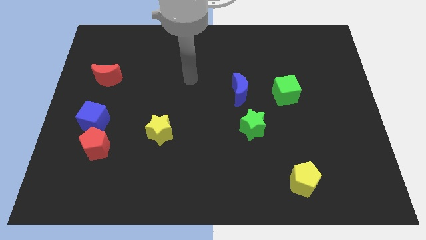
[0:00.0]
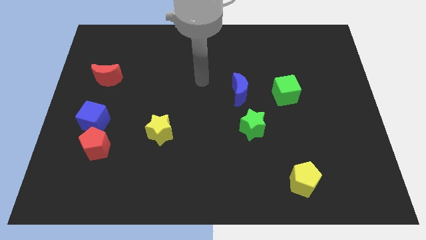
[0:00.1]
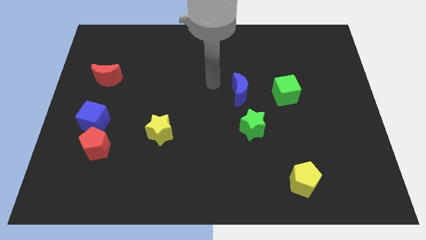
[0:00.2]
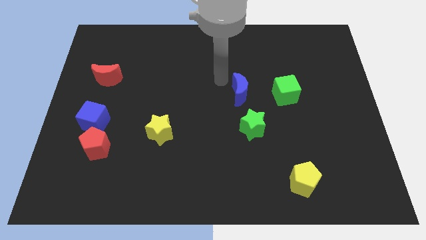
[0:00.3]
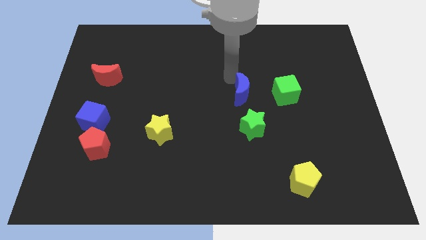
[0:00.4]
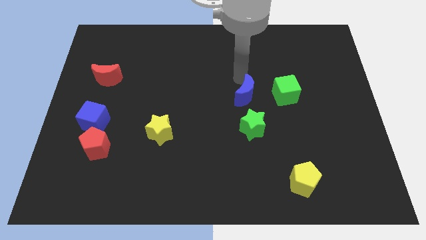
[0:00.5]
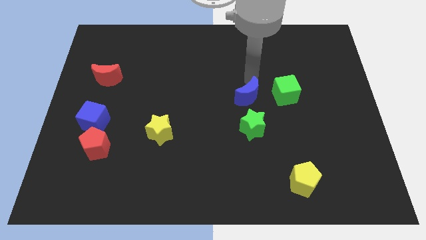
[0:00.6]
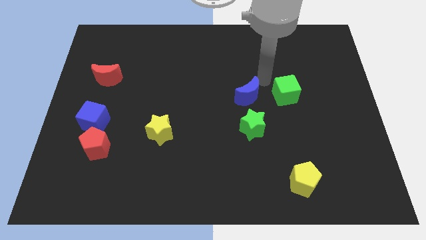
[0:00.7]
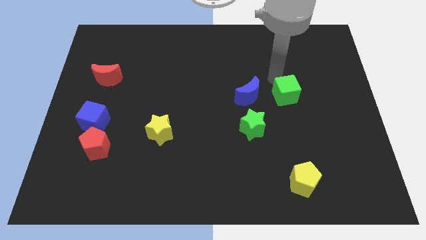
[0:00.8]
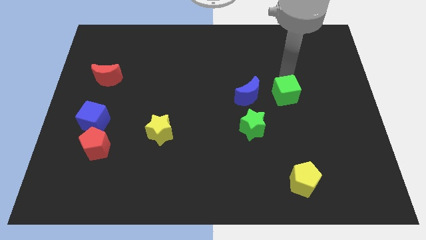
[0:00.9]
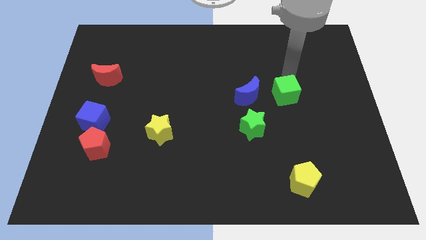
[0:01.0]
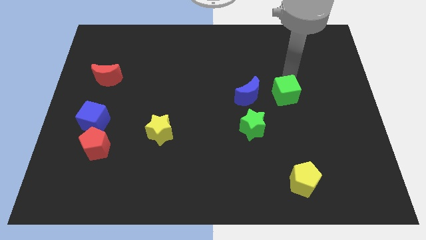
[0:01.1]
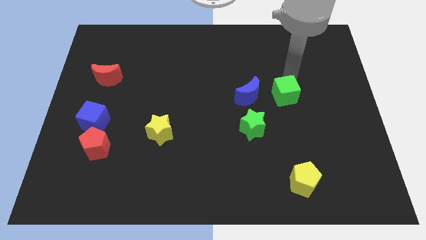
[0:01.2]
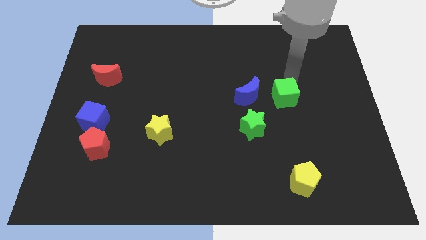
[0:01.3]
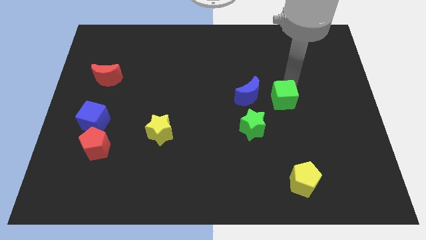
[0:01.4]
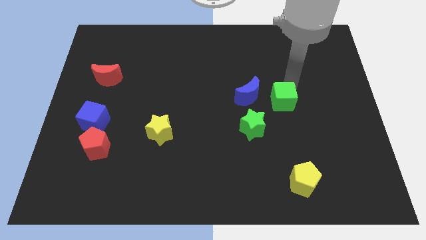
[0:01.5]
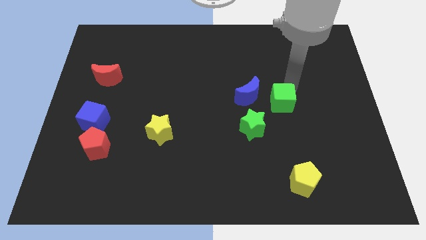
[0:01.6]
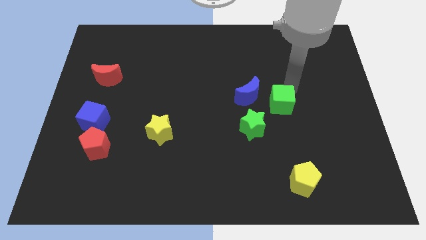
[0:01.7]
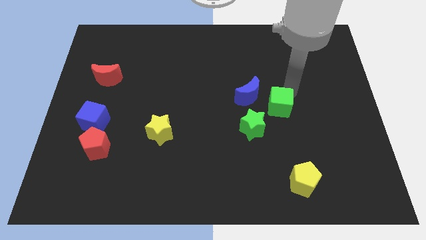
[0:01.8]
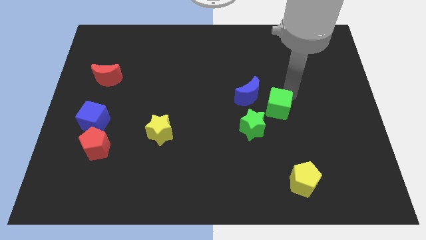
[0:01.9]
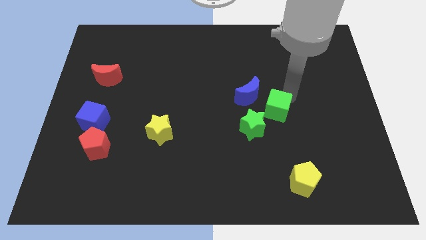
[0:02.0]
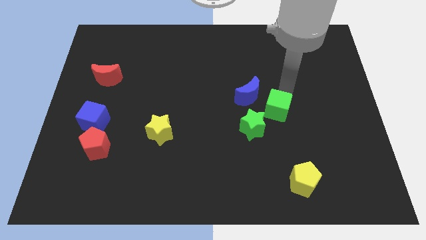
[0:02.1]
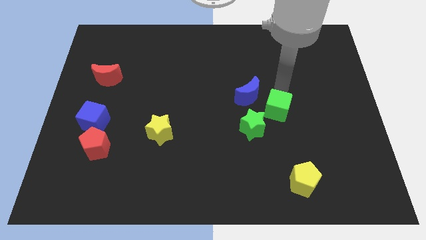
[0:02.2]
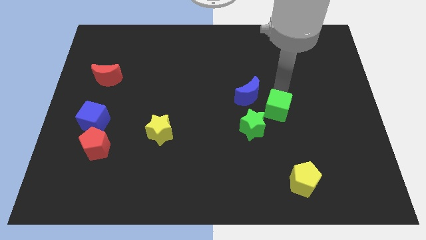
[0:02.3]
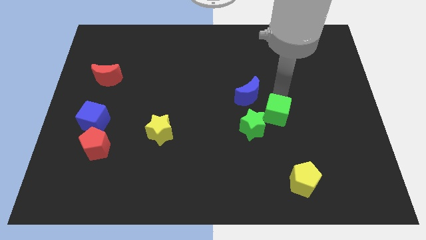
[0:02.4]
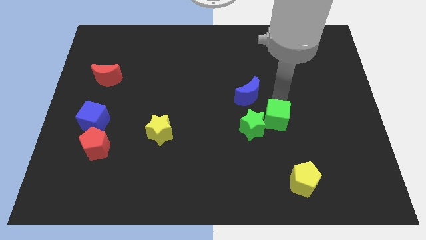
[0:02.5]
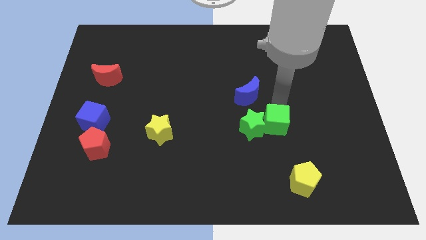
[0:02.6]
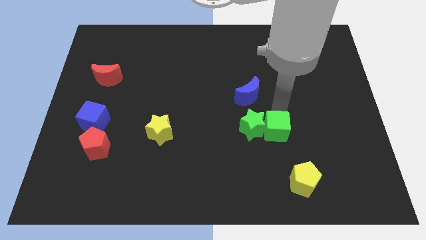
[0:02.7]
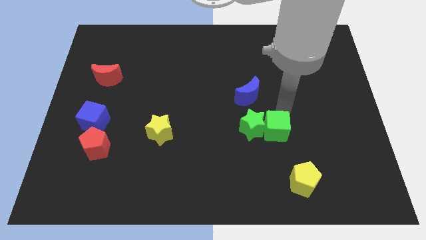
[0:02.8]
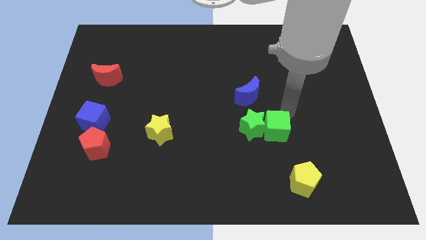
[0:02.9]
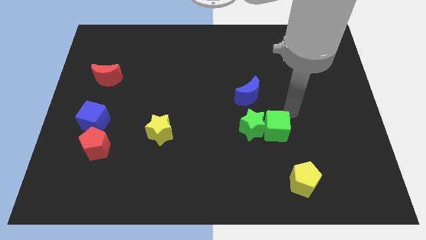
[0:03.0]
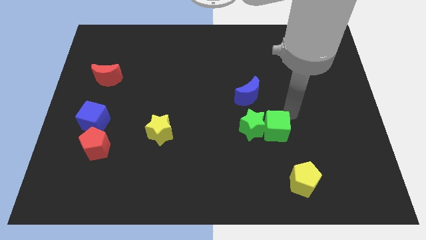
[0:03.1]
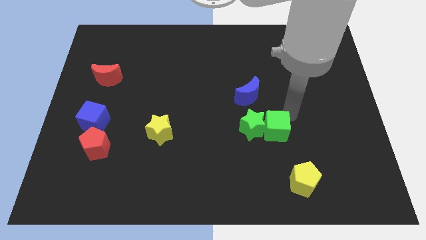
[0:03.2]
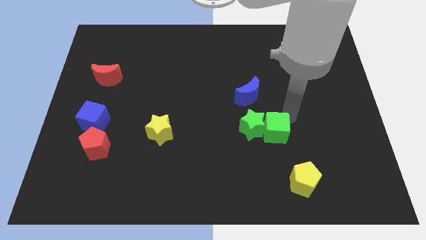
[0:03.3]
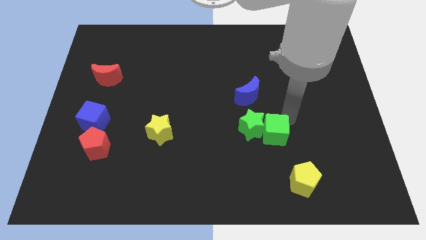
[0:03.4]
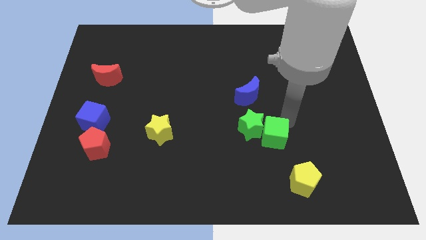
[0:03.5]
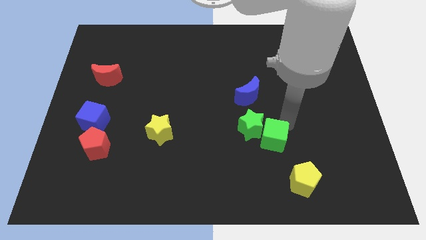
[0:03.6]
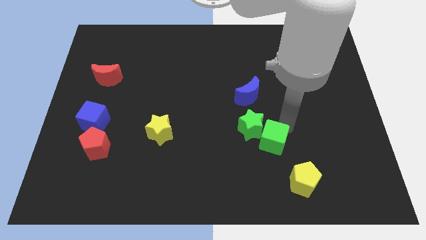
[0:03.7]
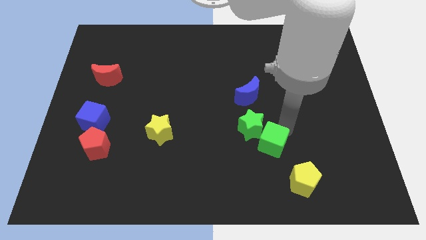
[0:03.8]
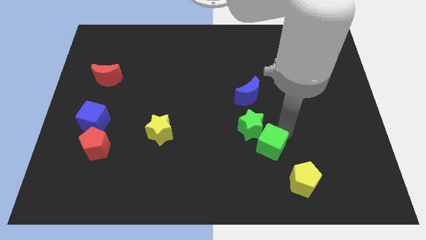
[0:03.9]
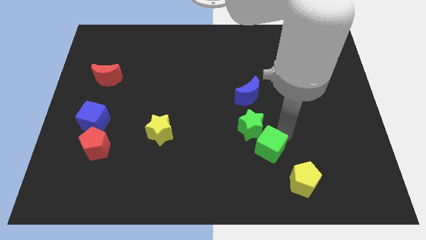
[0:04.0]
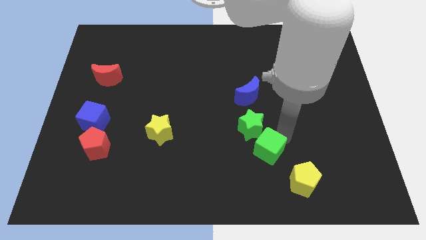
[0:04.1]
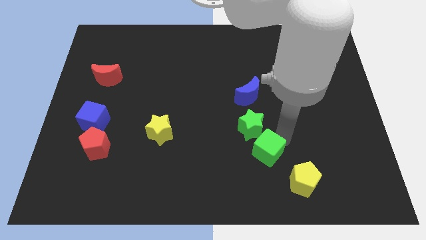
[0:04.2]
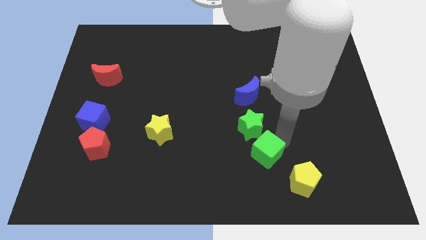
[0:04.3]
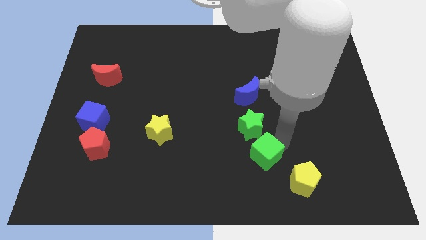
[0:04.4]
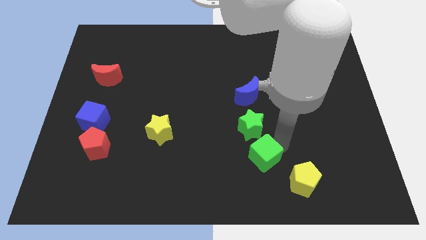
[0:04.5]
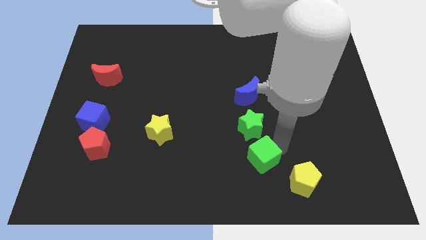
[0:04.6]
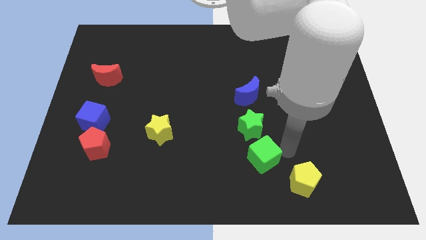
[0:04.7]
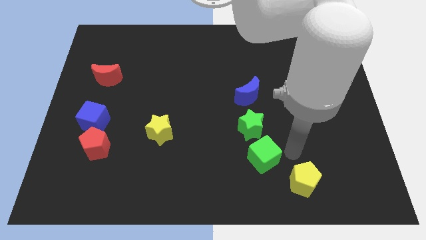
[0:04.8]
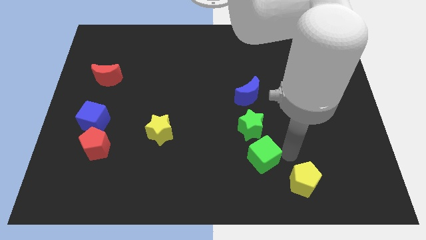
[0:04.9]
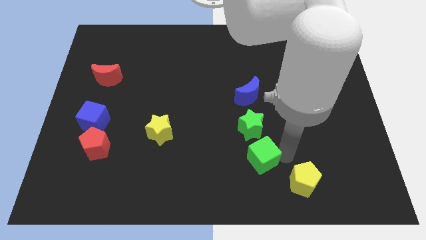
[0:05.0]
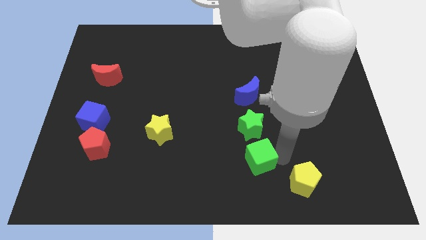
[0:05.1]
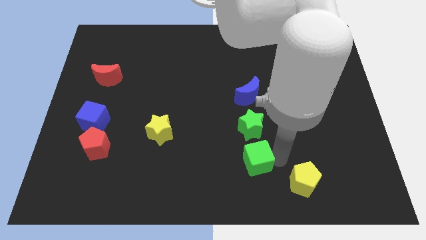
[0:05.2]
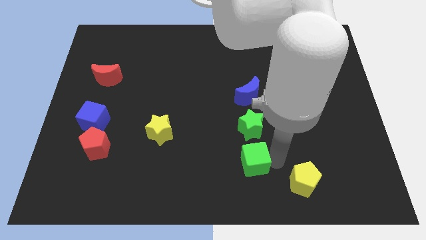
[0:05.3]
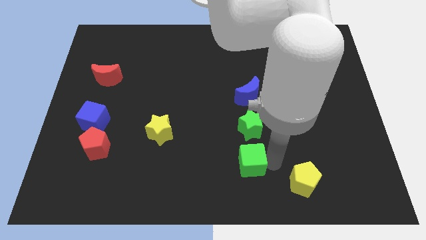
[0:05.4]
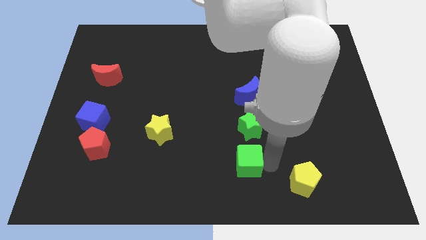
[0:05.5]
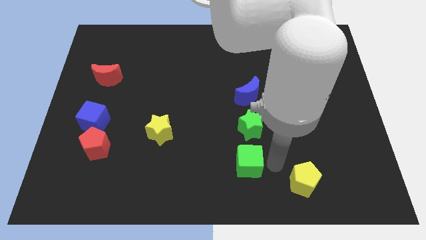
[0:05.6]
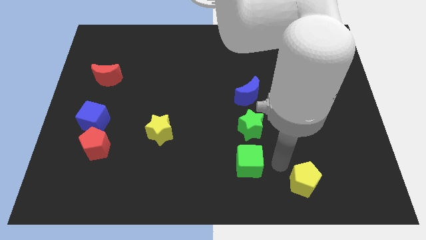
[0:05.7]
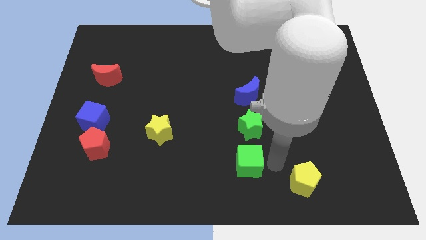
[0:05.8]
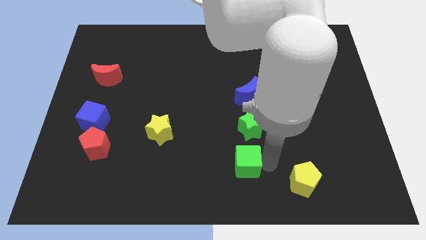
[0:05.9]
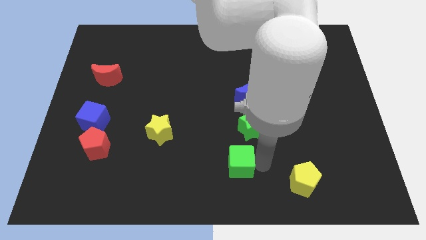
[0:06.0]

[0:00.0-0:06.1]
slide the green cube downwards and then to the left

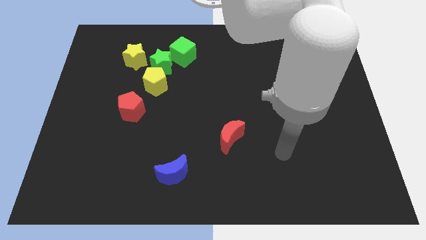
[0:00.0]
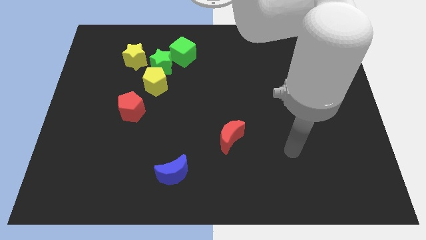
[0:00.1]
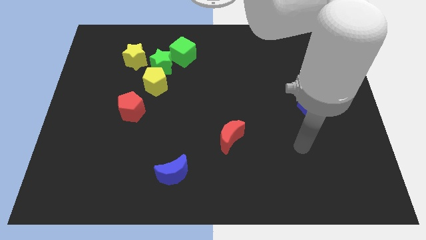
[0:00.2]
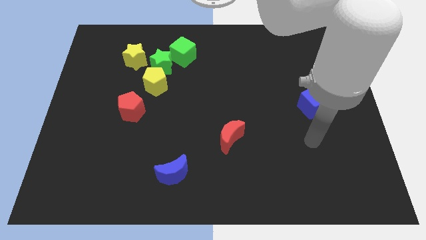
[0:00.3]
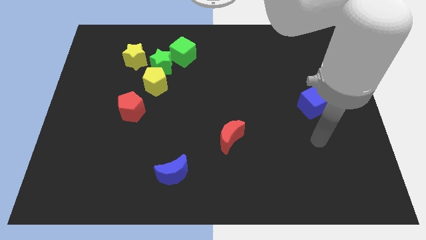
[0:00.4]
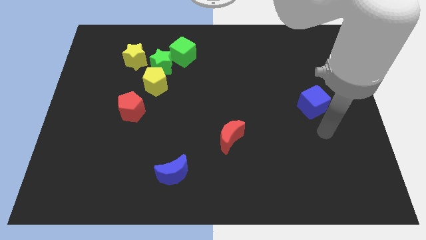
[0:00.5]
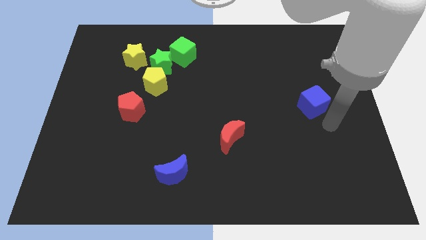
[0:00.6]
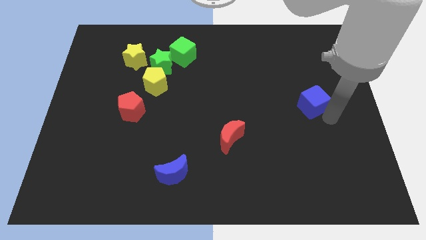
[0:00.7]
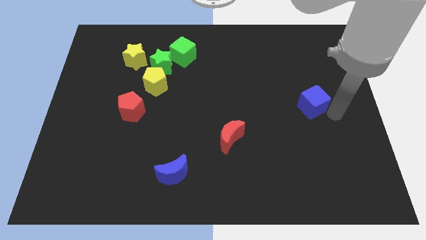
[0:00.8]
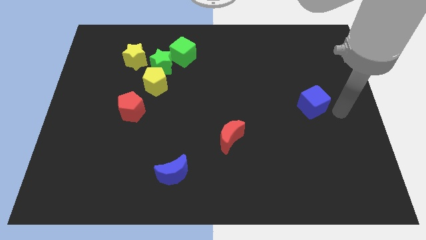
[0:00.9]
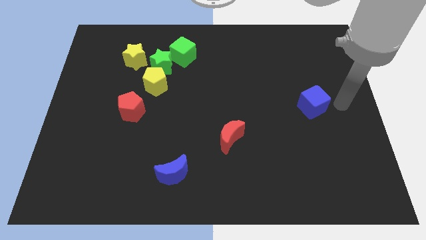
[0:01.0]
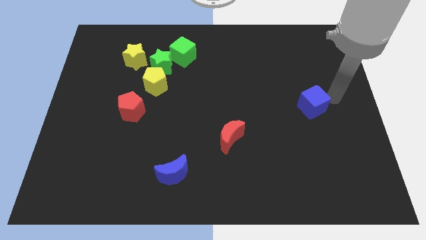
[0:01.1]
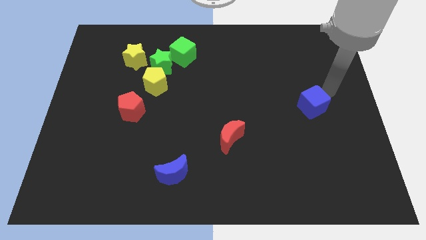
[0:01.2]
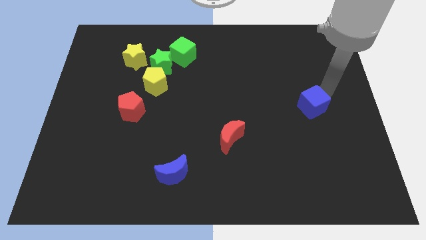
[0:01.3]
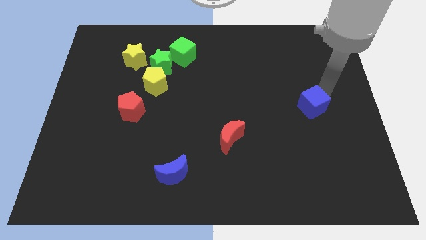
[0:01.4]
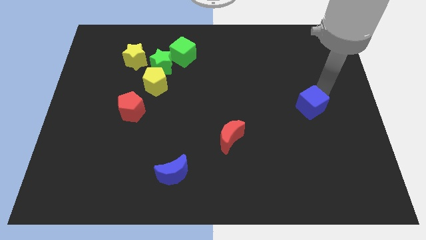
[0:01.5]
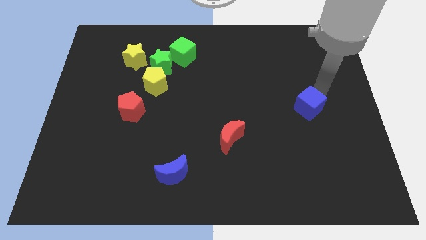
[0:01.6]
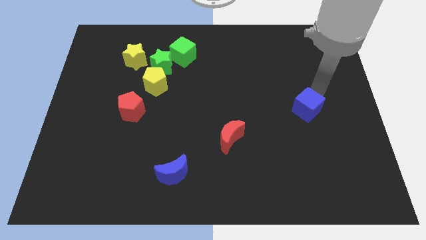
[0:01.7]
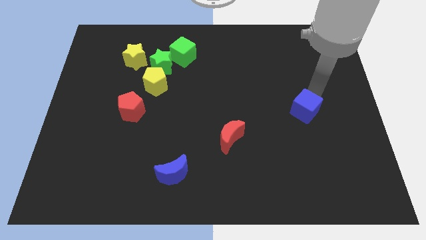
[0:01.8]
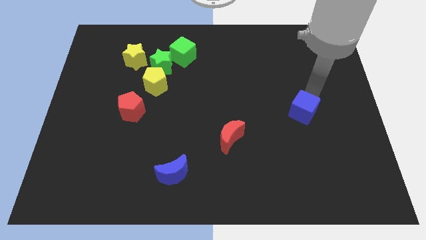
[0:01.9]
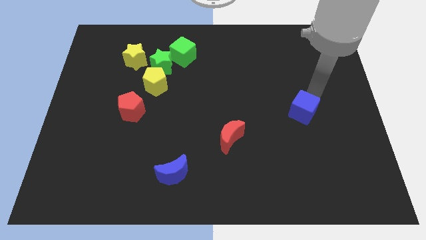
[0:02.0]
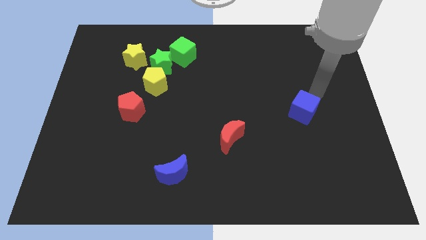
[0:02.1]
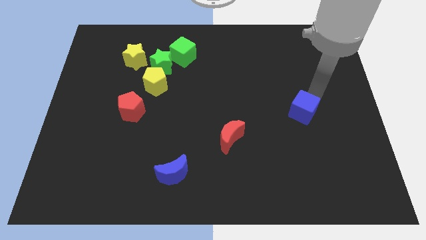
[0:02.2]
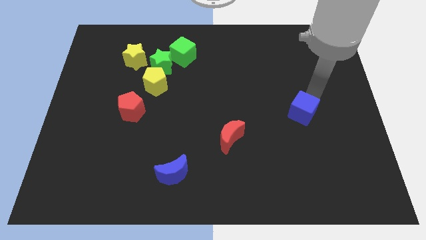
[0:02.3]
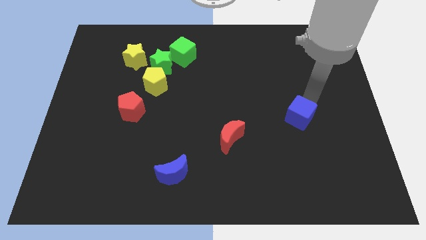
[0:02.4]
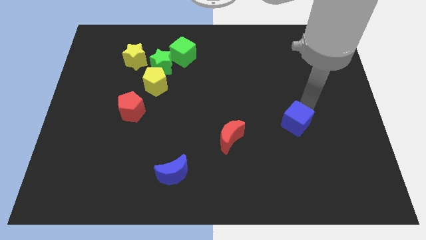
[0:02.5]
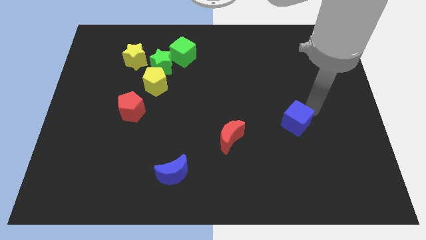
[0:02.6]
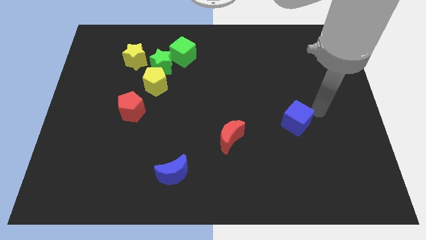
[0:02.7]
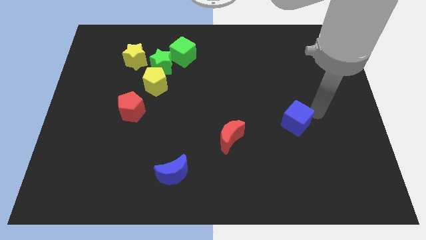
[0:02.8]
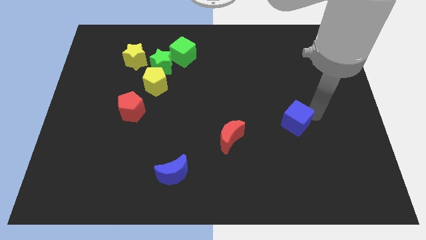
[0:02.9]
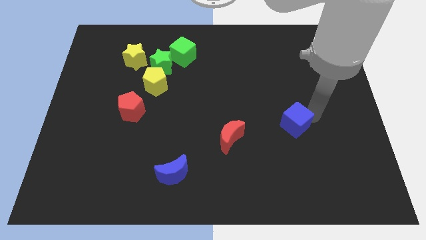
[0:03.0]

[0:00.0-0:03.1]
push the blue cube slightly down and to the left
